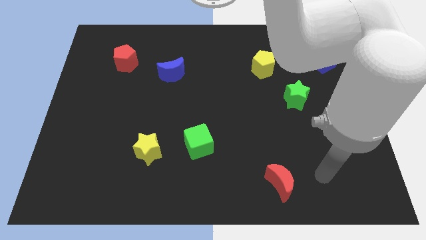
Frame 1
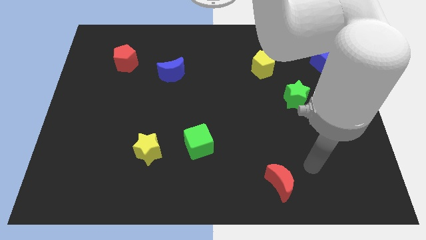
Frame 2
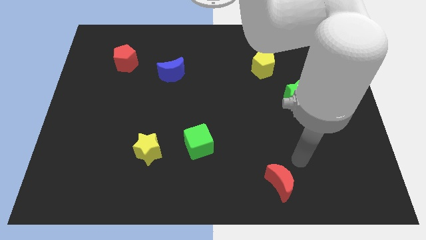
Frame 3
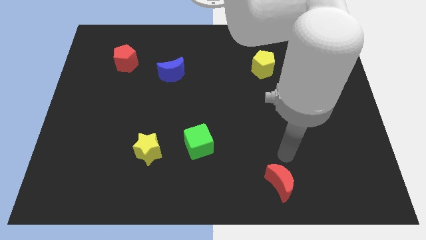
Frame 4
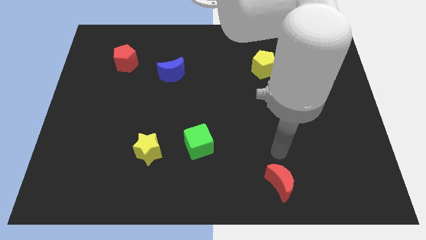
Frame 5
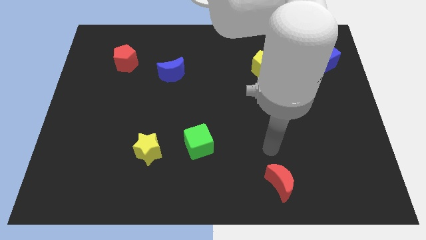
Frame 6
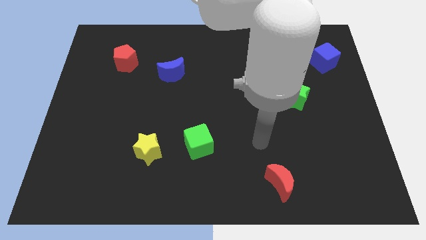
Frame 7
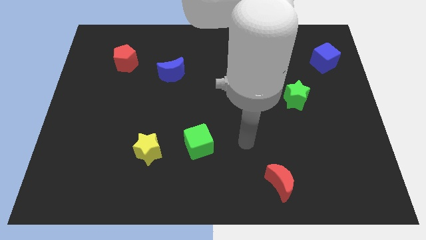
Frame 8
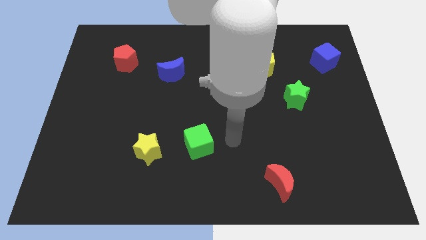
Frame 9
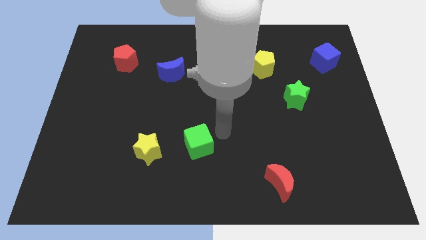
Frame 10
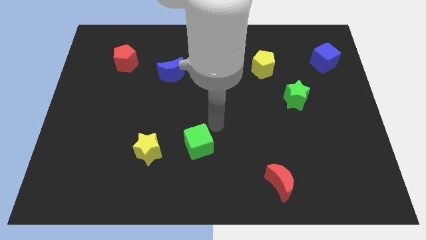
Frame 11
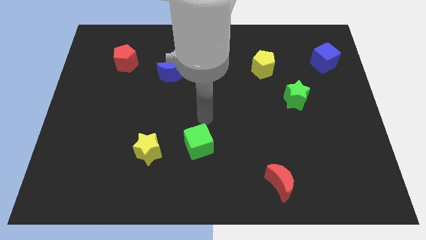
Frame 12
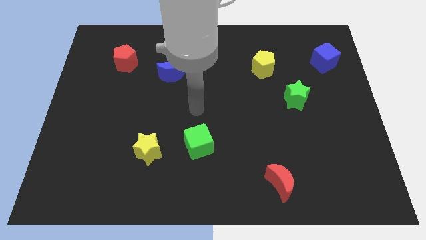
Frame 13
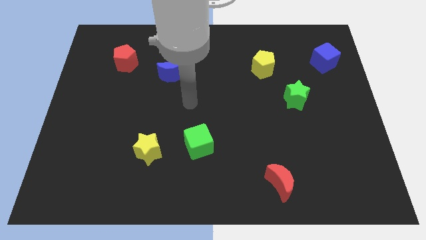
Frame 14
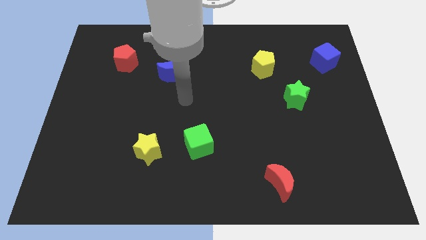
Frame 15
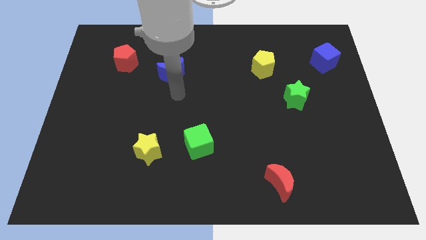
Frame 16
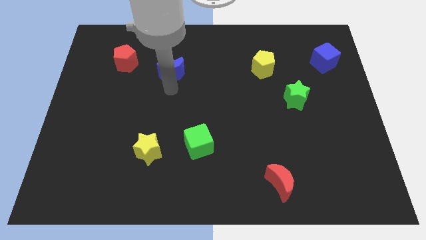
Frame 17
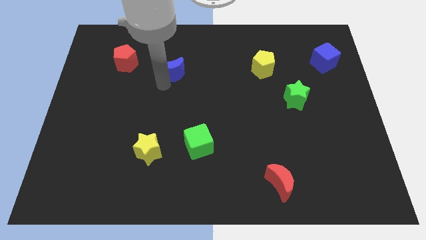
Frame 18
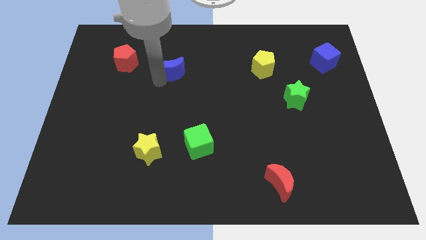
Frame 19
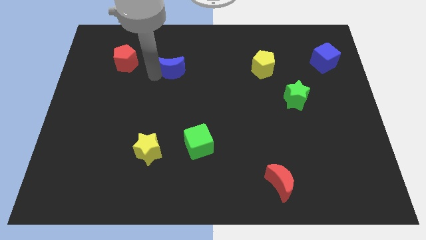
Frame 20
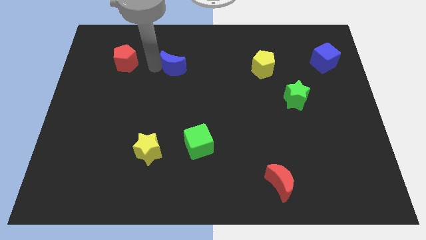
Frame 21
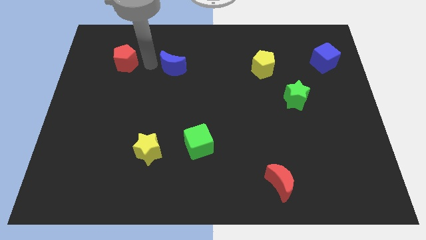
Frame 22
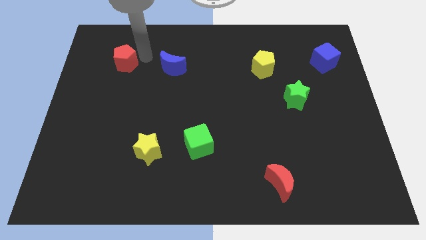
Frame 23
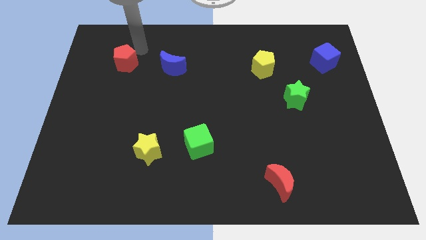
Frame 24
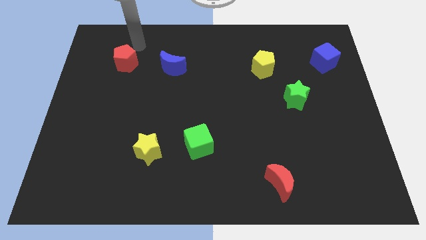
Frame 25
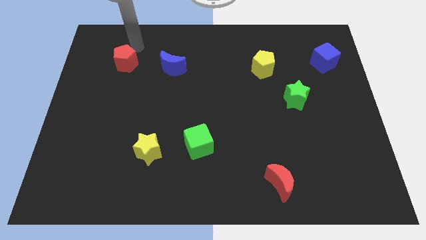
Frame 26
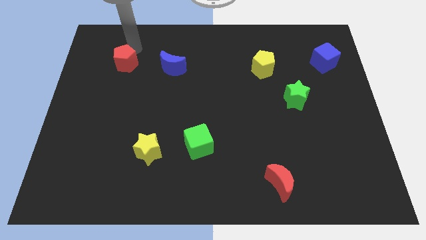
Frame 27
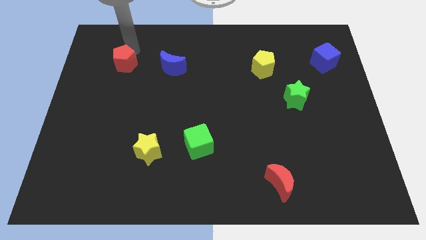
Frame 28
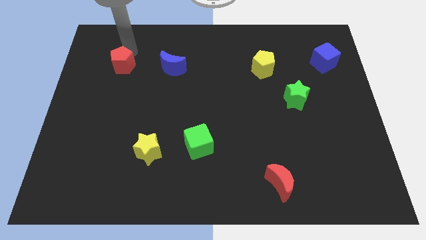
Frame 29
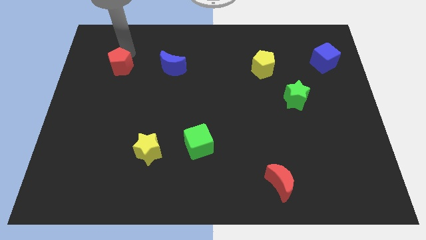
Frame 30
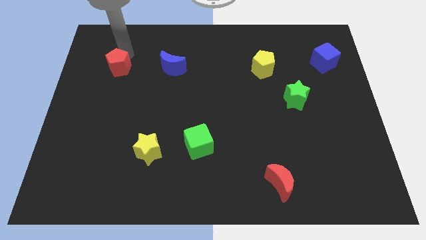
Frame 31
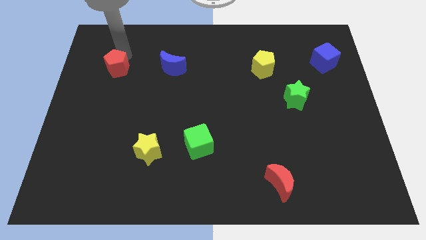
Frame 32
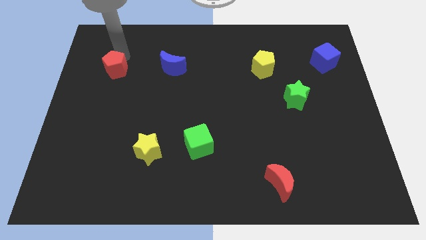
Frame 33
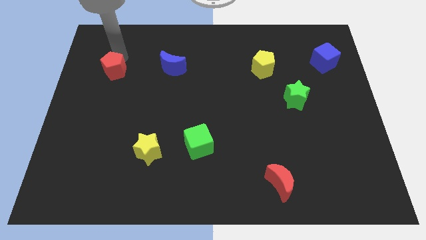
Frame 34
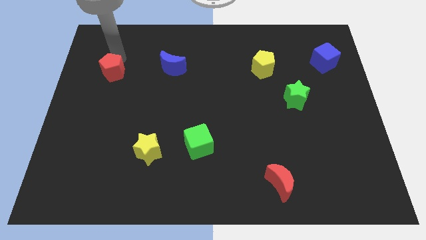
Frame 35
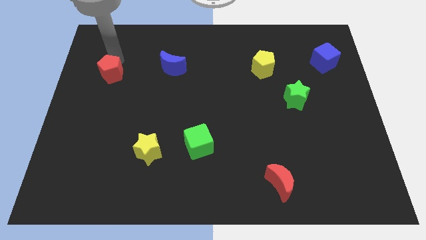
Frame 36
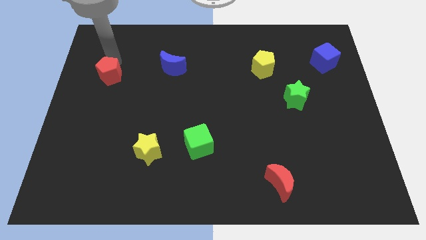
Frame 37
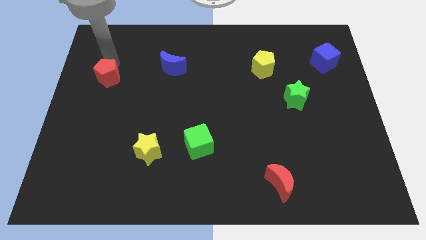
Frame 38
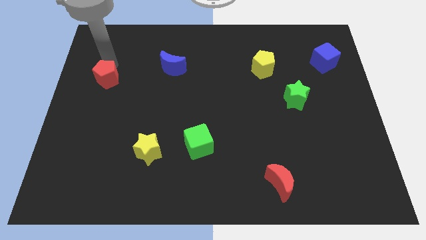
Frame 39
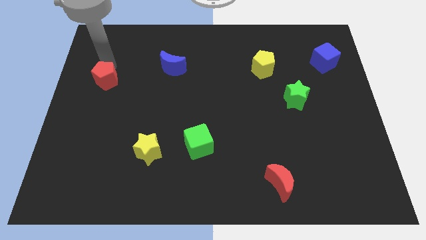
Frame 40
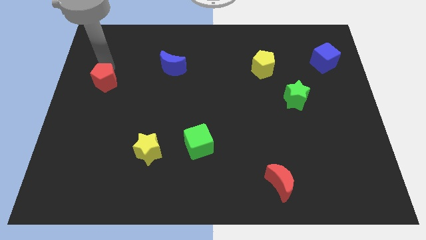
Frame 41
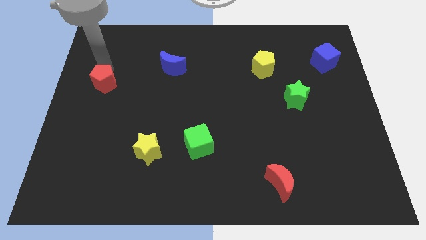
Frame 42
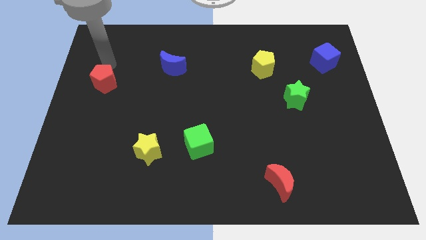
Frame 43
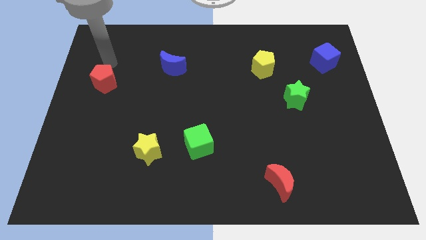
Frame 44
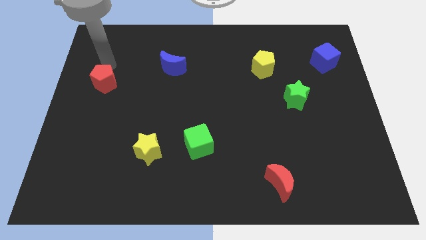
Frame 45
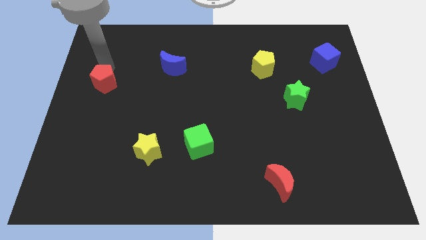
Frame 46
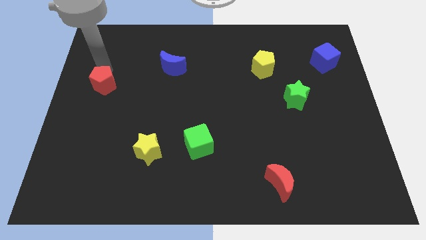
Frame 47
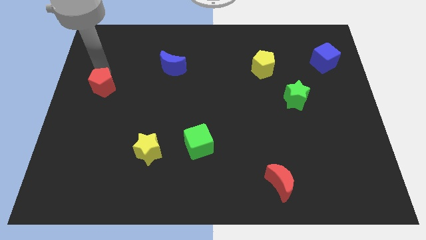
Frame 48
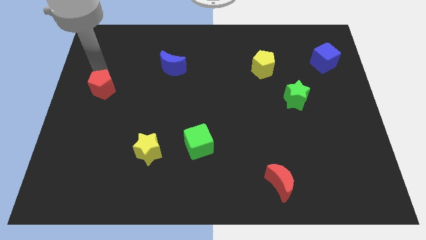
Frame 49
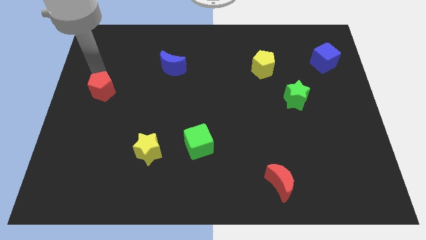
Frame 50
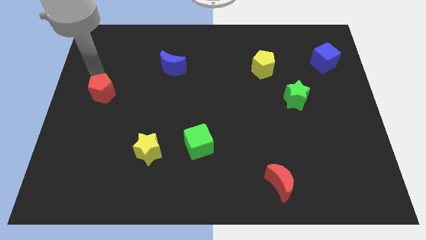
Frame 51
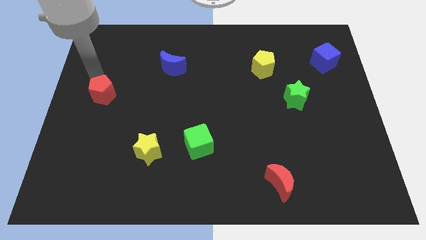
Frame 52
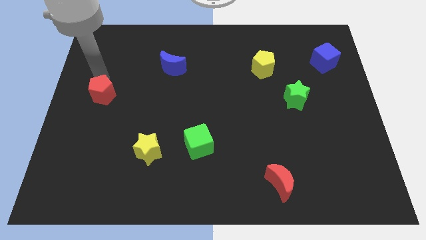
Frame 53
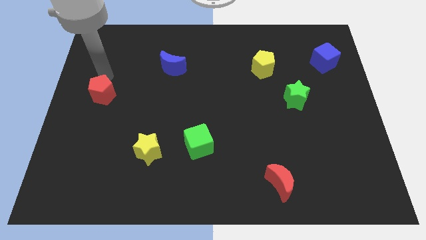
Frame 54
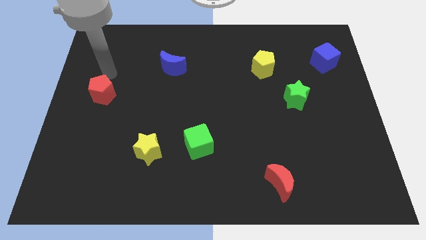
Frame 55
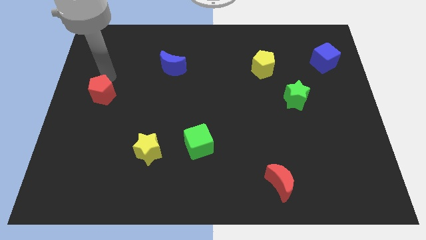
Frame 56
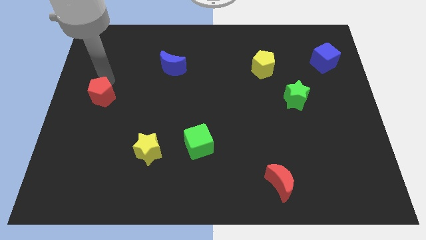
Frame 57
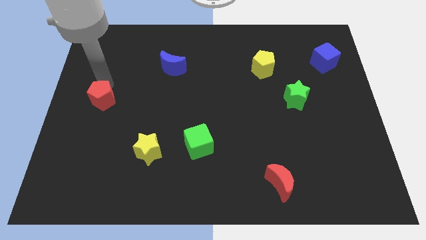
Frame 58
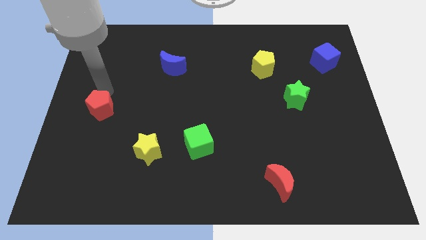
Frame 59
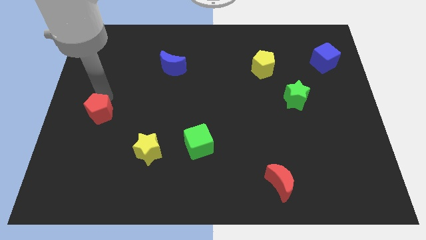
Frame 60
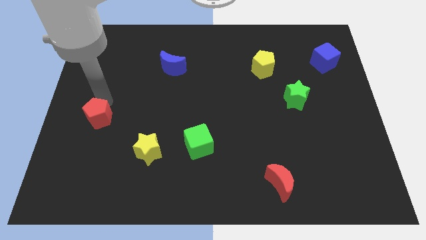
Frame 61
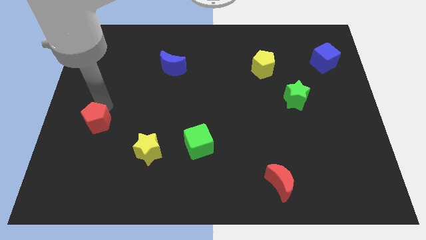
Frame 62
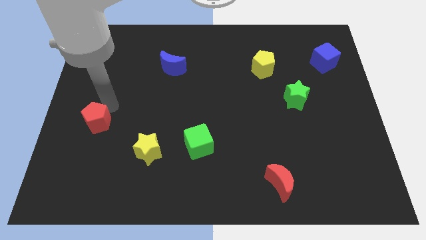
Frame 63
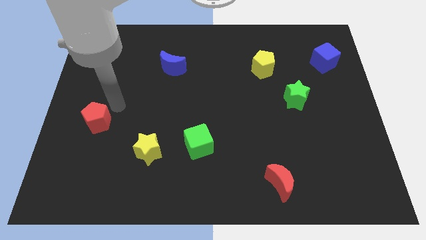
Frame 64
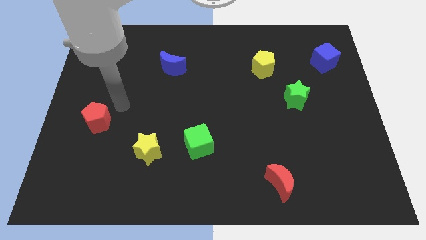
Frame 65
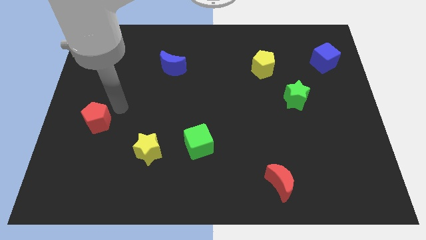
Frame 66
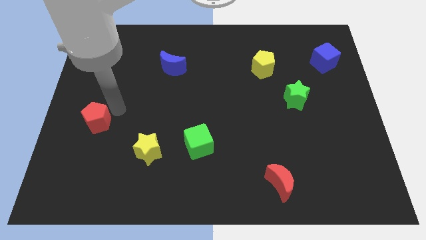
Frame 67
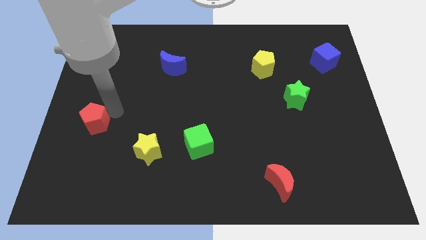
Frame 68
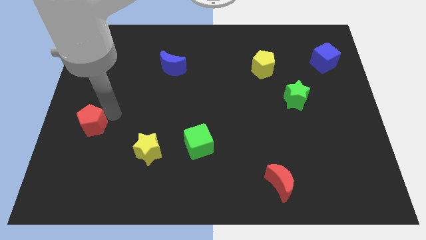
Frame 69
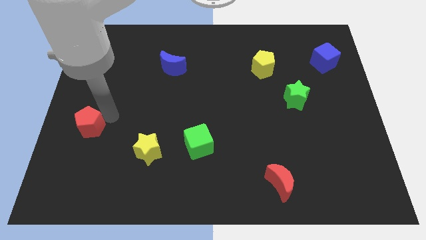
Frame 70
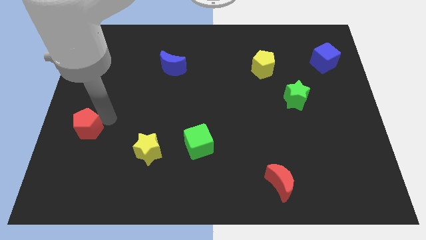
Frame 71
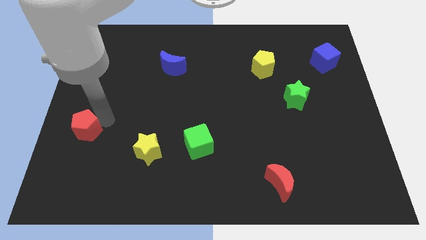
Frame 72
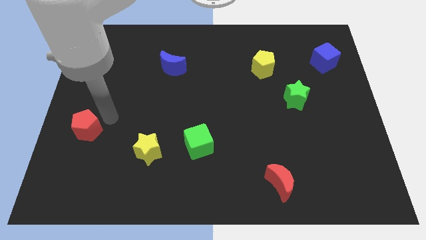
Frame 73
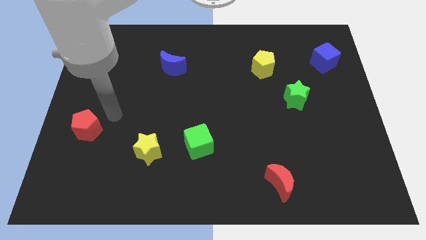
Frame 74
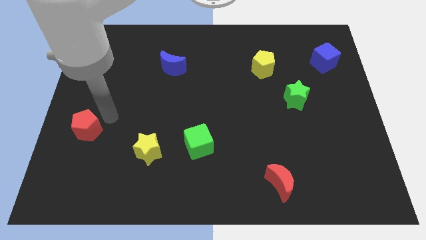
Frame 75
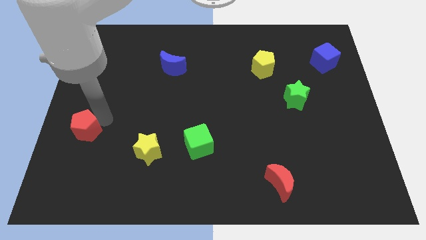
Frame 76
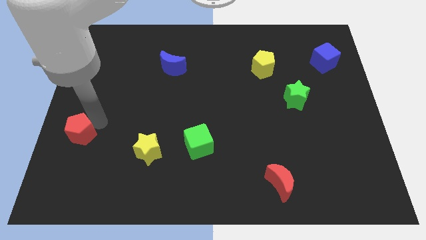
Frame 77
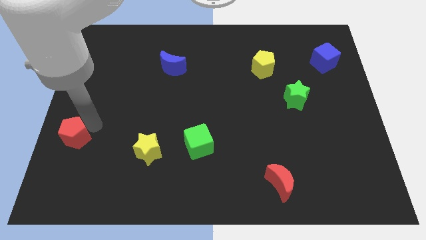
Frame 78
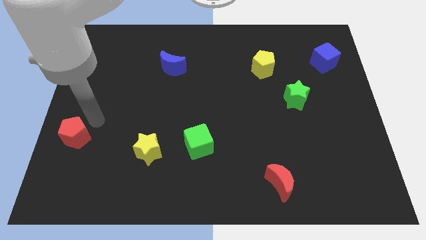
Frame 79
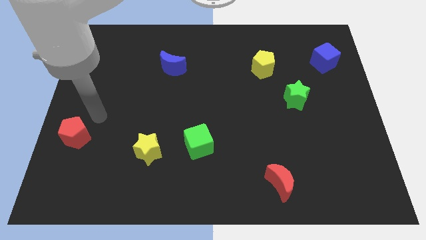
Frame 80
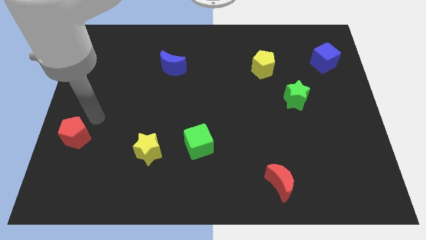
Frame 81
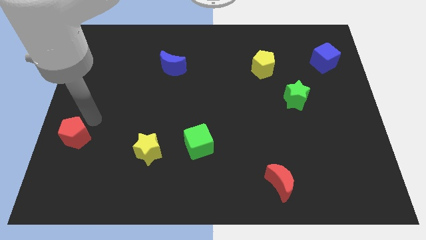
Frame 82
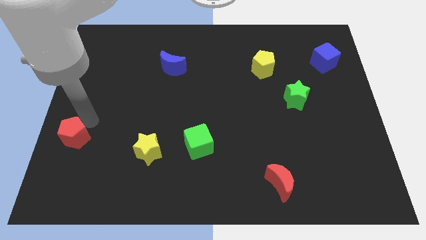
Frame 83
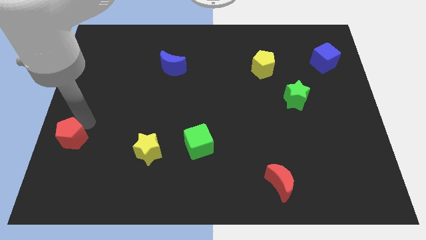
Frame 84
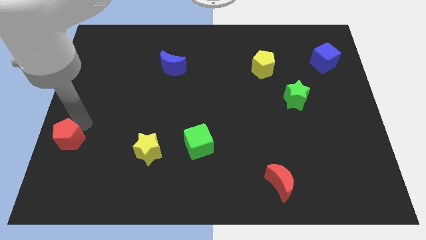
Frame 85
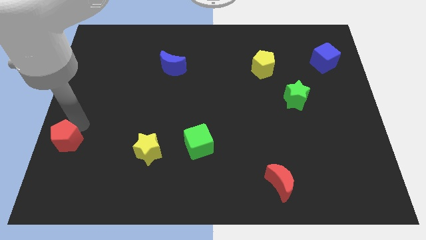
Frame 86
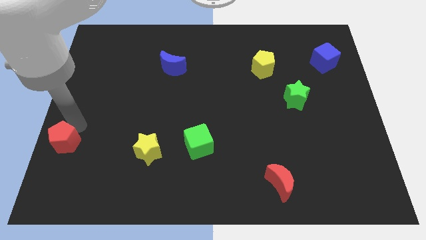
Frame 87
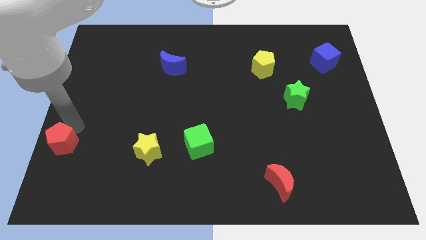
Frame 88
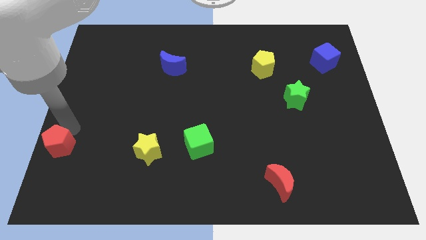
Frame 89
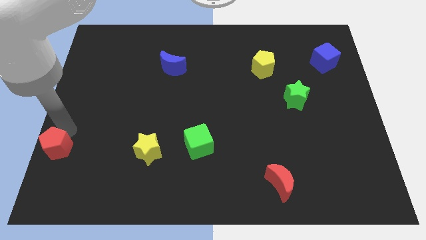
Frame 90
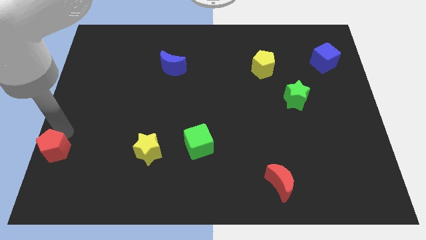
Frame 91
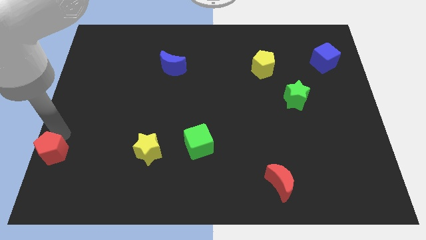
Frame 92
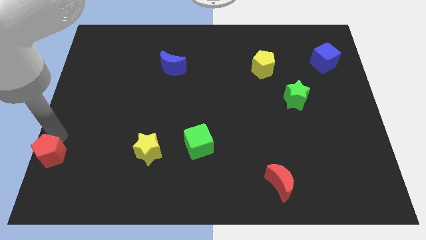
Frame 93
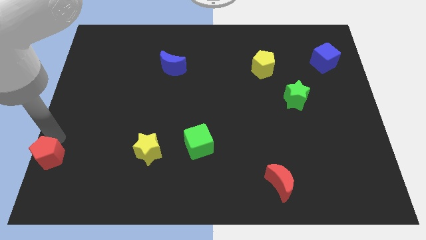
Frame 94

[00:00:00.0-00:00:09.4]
slide the red pentagon to the bottom left corner
